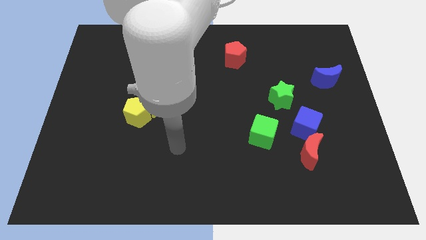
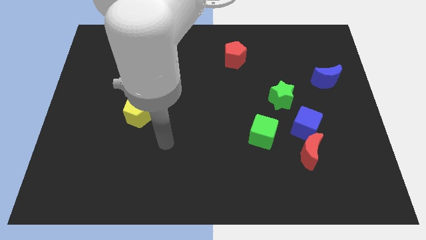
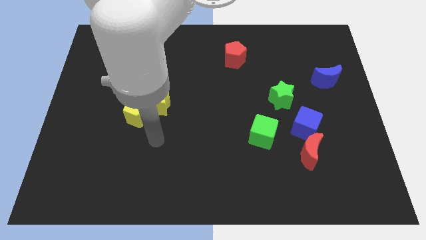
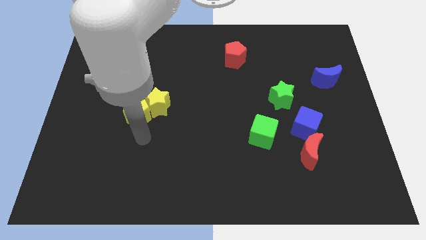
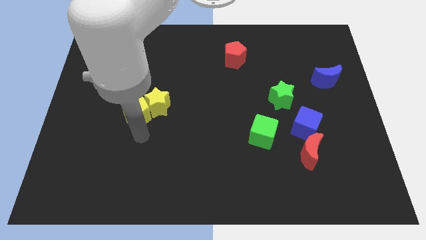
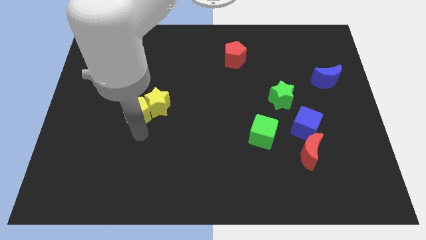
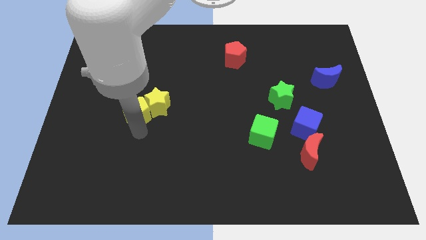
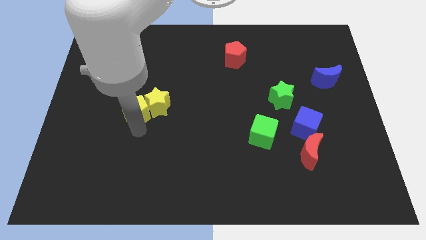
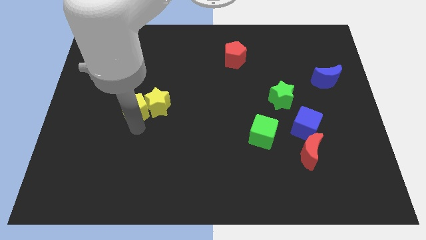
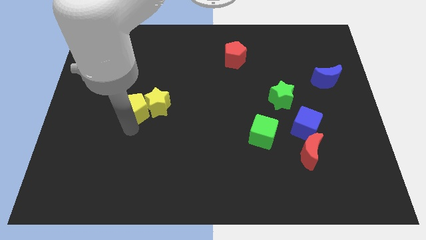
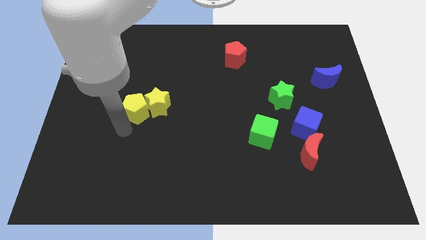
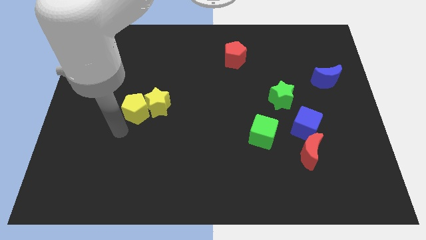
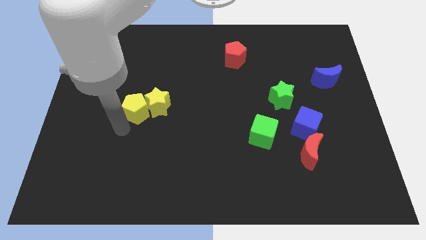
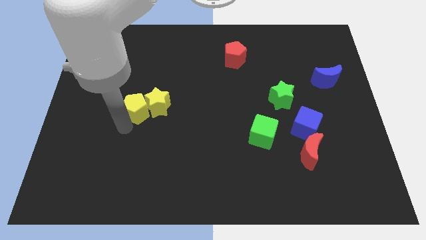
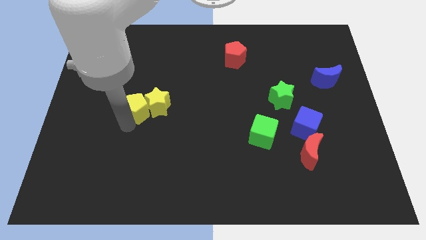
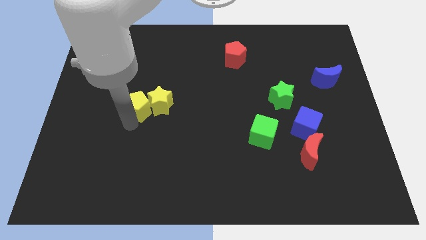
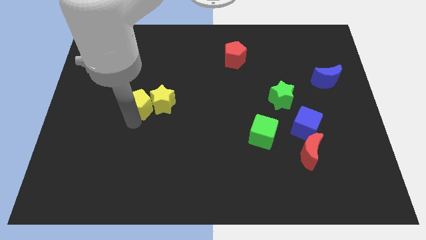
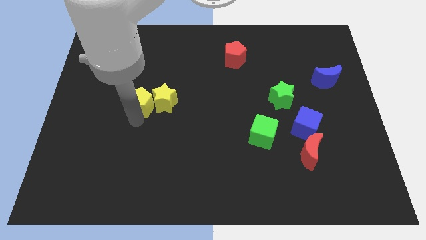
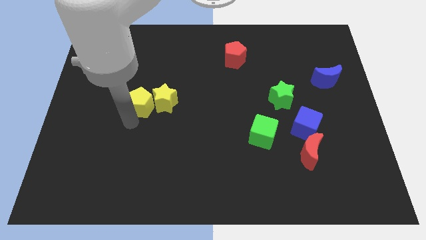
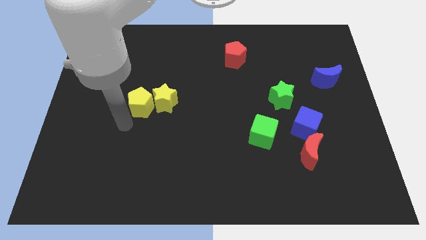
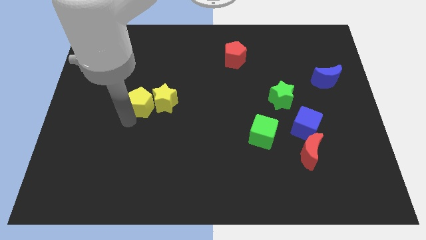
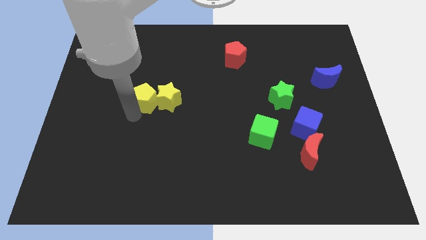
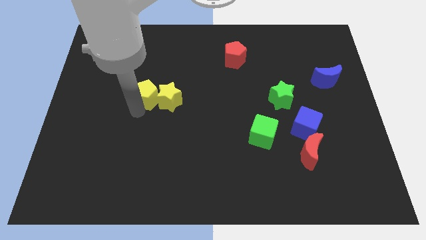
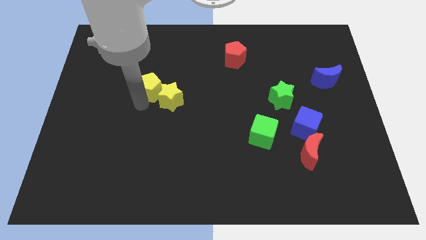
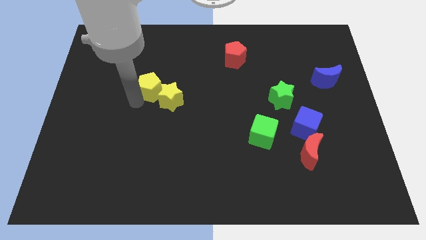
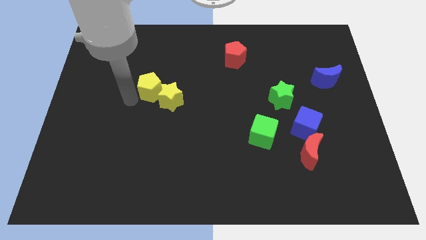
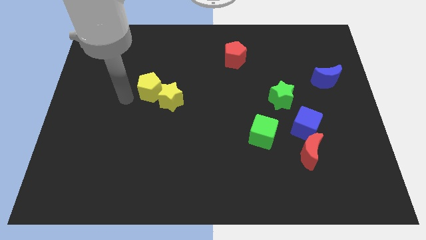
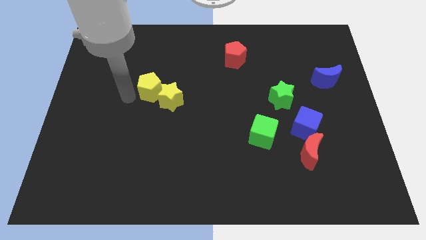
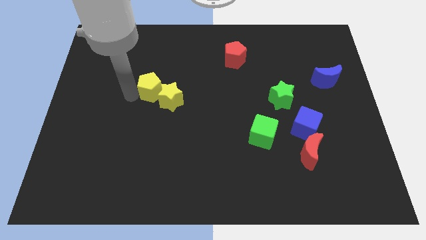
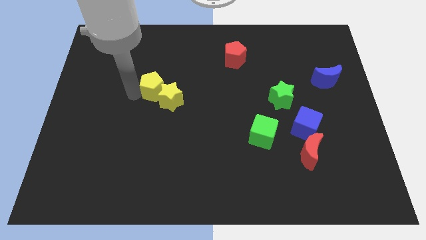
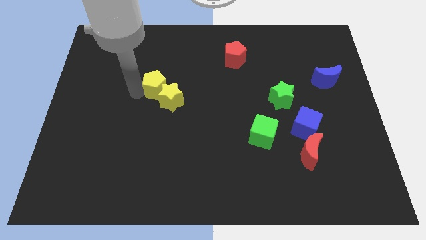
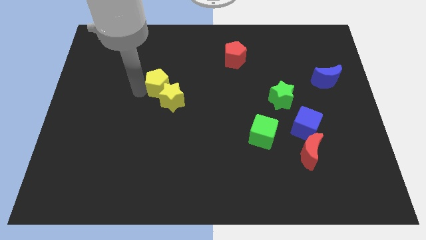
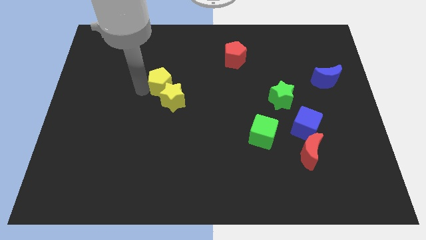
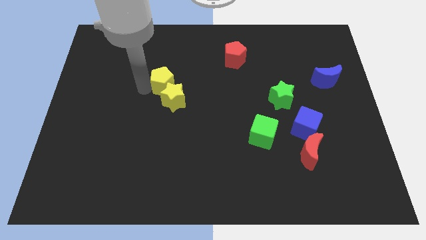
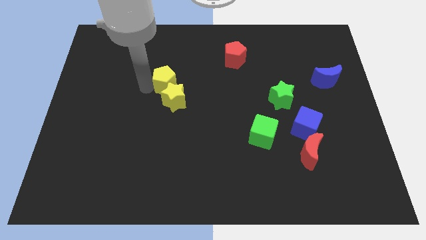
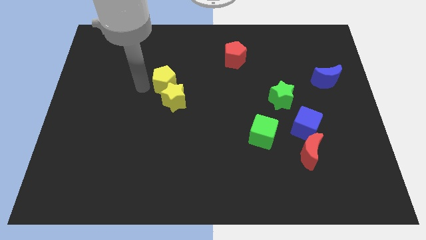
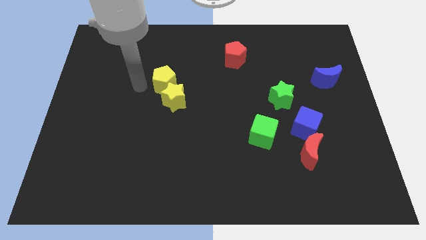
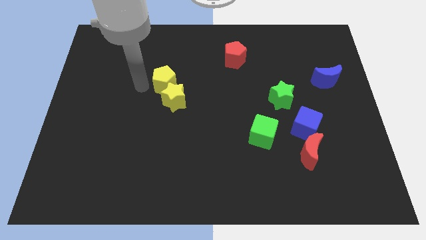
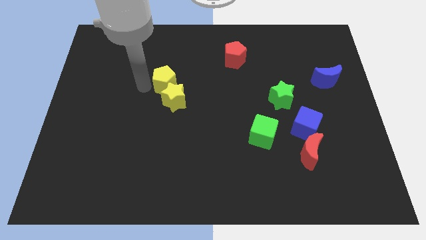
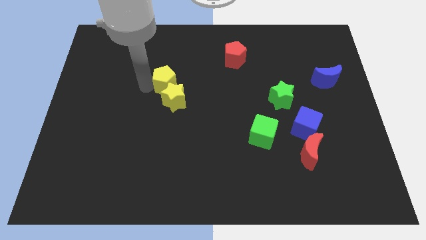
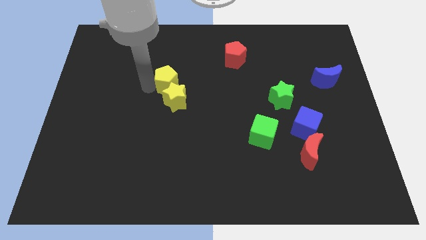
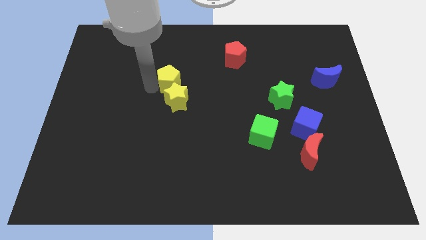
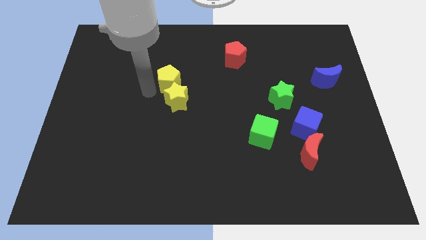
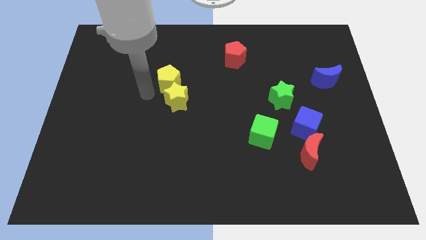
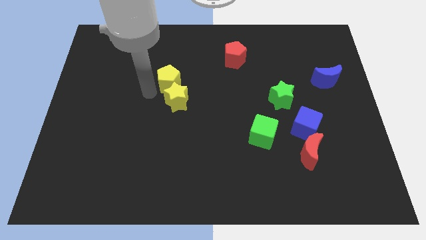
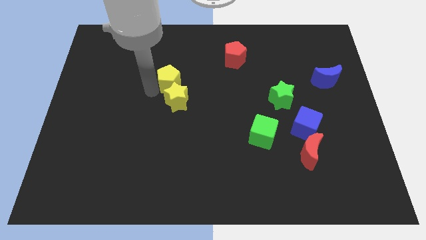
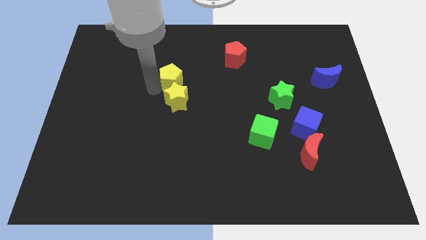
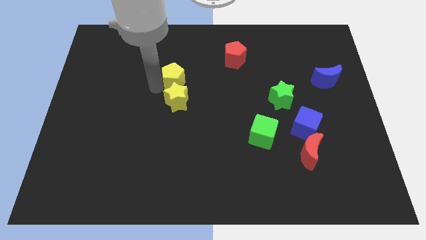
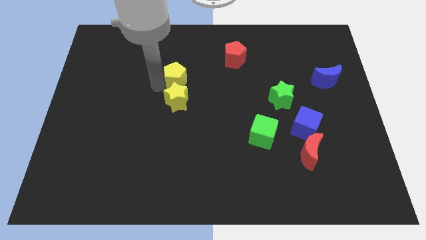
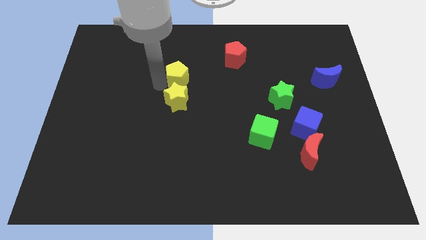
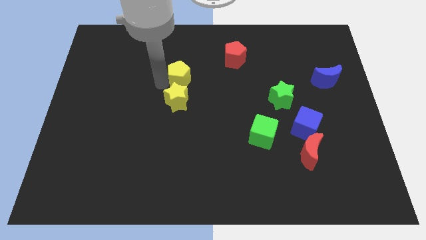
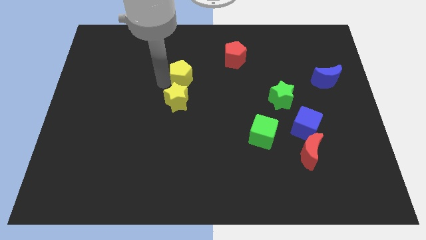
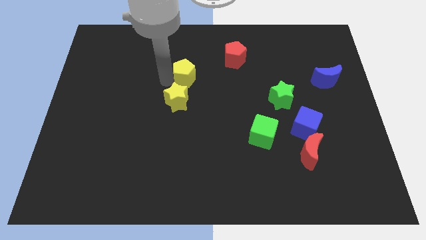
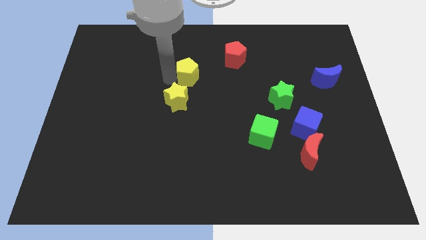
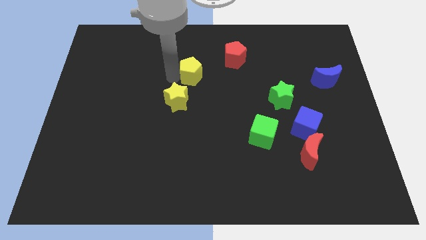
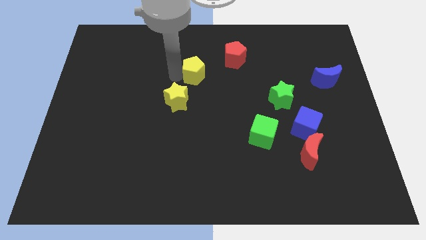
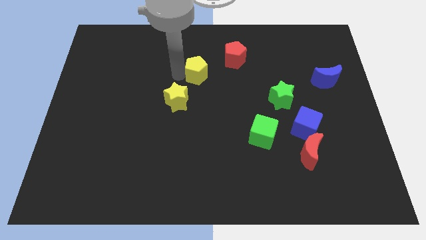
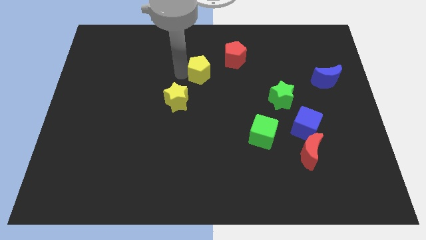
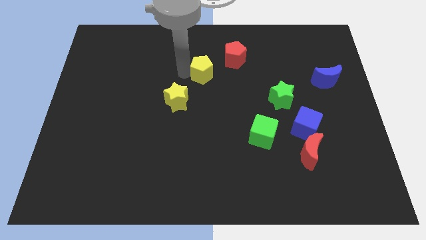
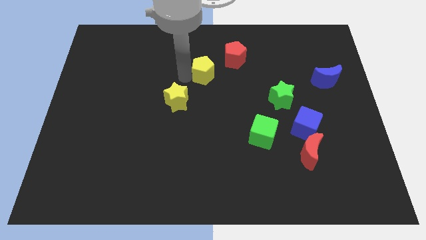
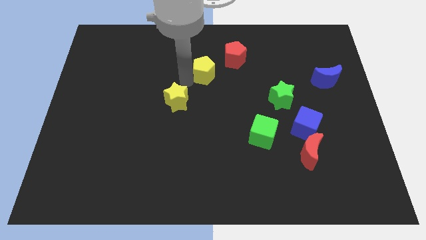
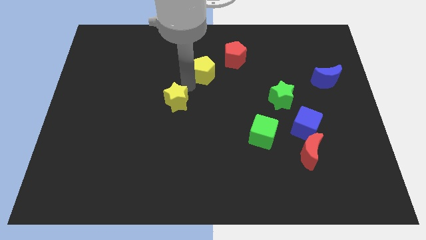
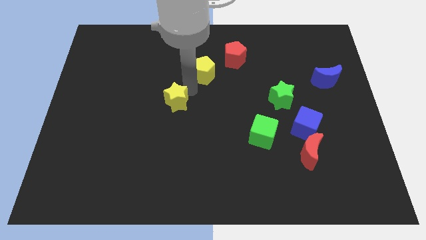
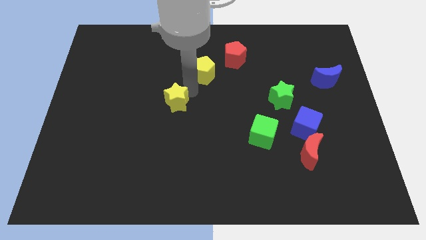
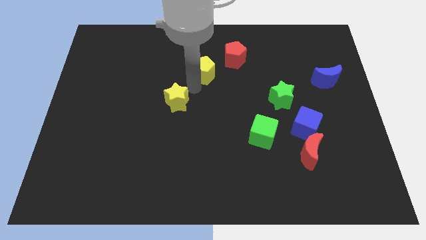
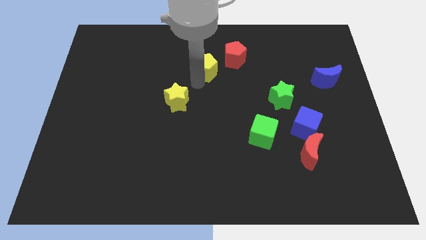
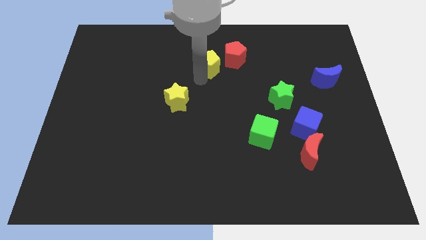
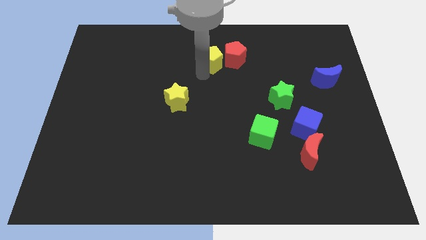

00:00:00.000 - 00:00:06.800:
slide the yellow pentagon close to the red pentagon

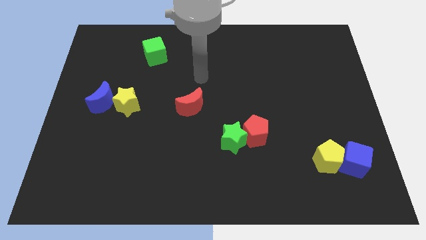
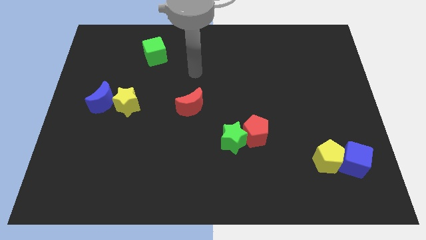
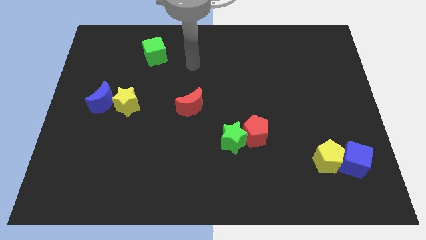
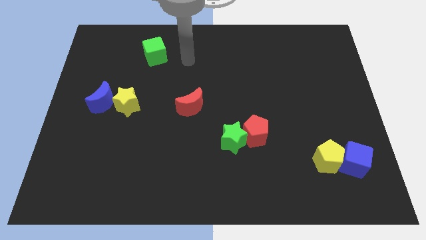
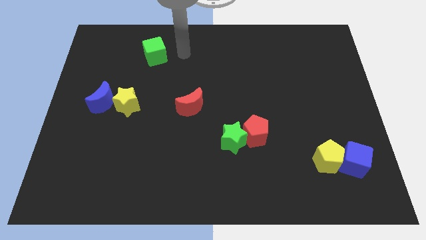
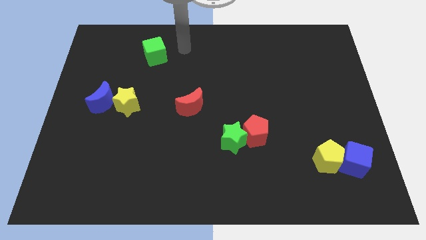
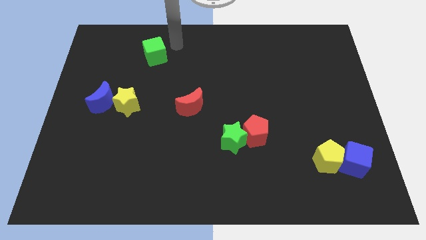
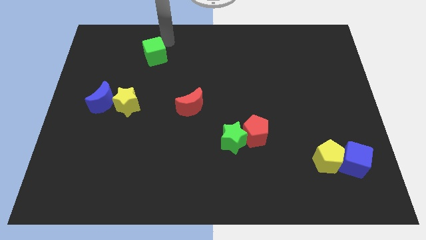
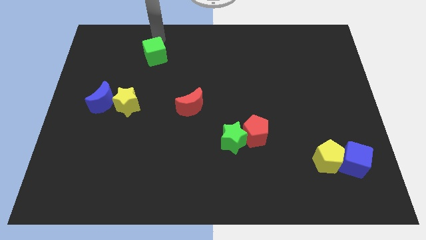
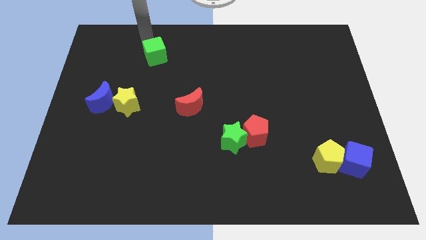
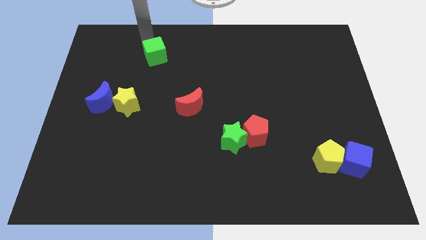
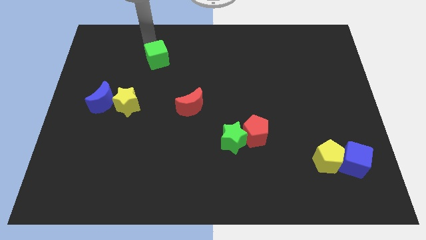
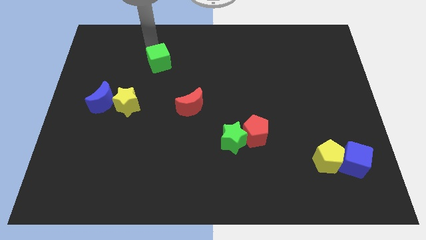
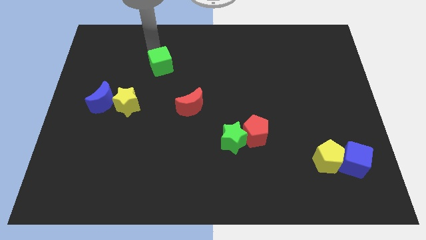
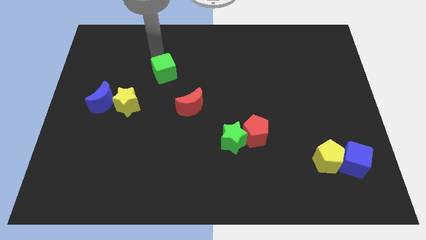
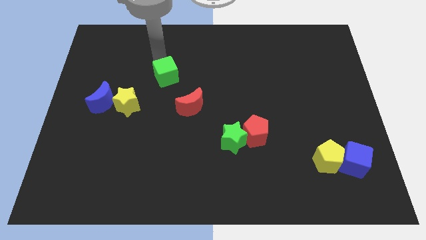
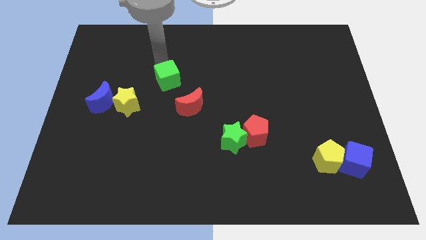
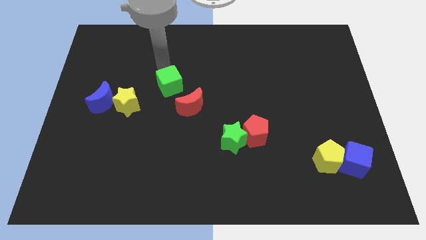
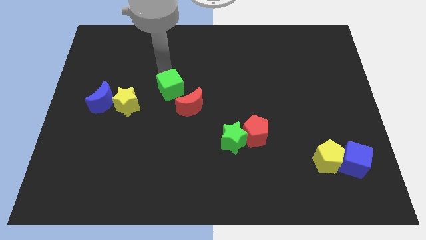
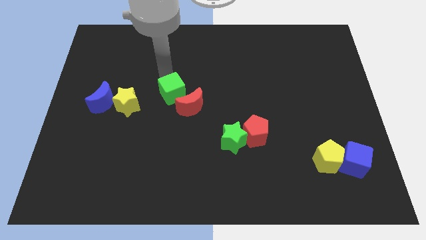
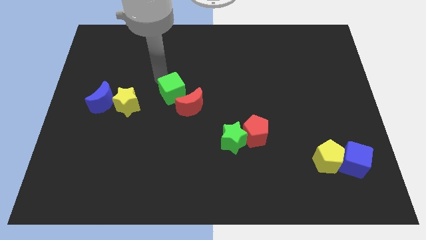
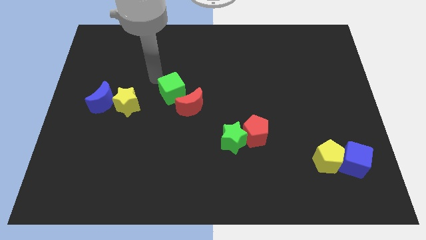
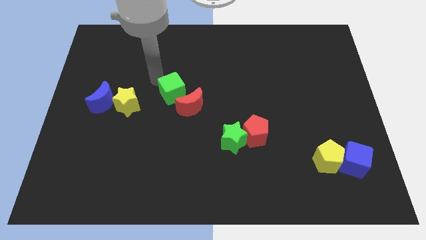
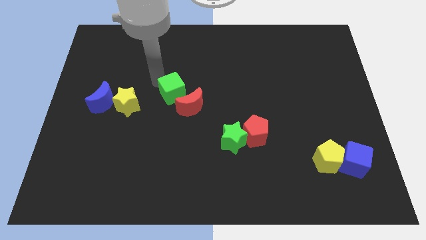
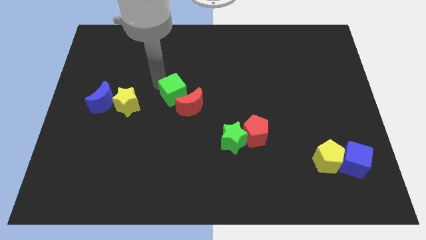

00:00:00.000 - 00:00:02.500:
push the green cube towards the red moon
